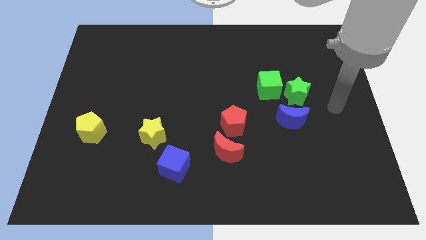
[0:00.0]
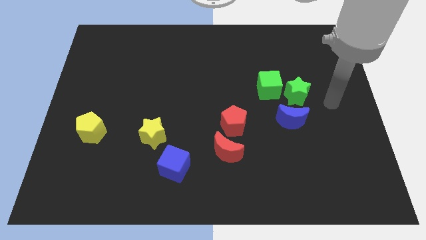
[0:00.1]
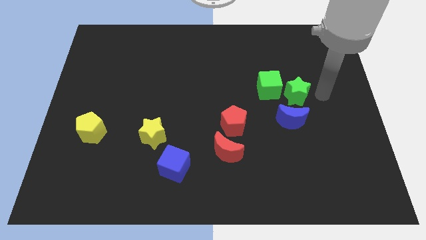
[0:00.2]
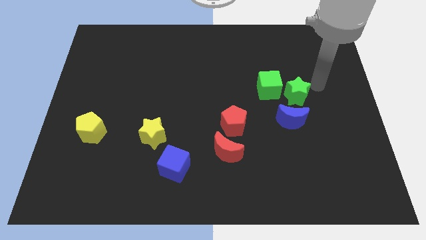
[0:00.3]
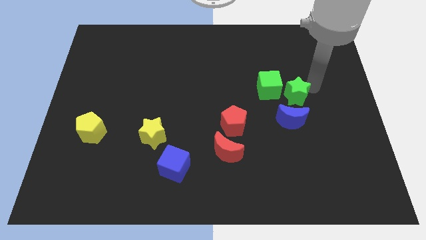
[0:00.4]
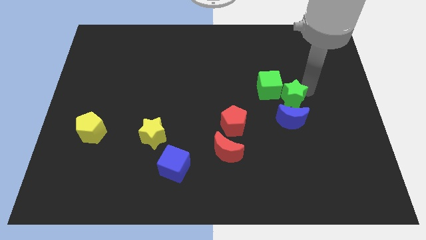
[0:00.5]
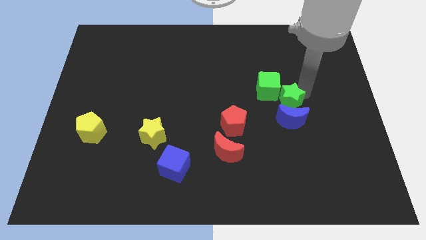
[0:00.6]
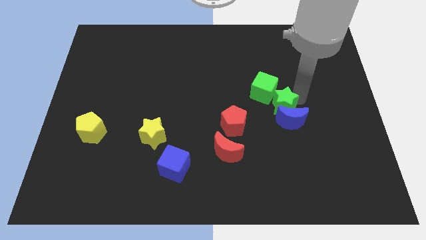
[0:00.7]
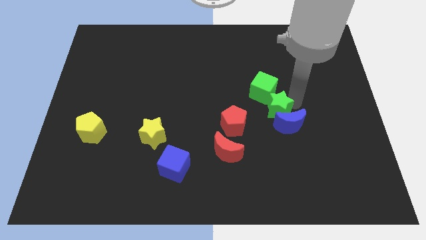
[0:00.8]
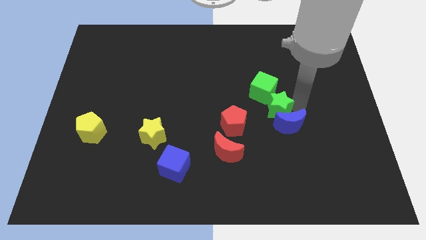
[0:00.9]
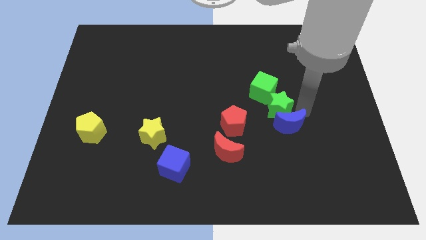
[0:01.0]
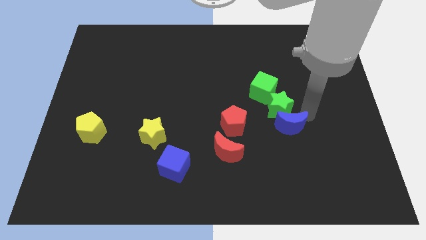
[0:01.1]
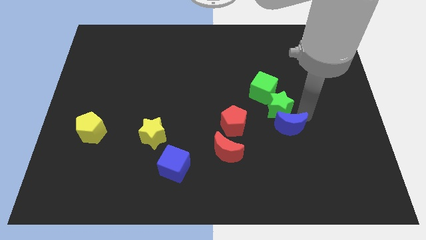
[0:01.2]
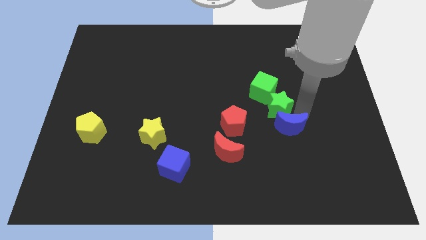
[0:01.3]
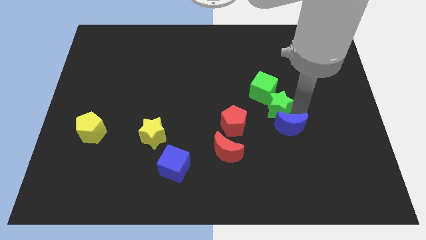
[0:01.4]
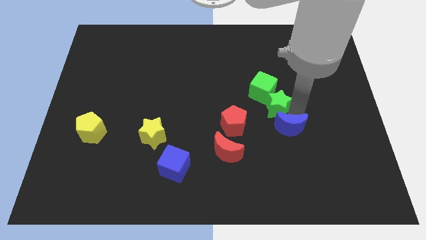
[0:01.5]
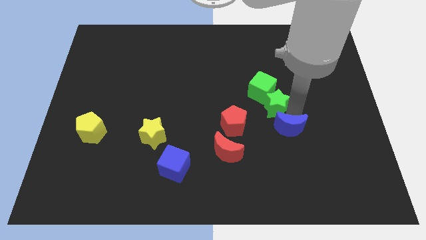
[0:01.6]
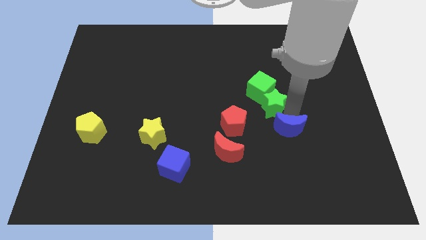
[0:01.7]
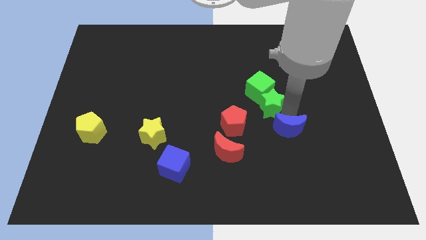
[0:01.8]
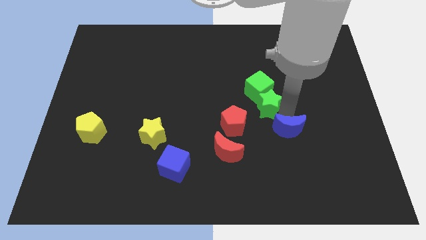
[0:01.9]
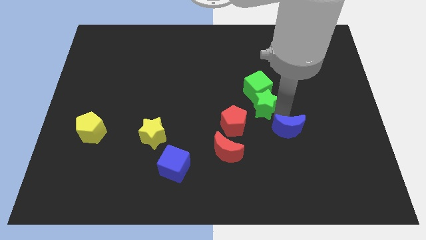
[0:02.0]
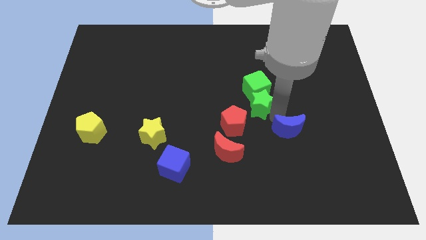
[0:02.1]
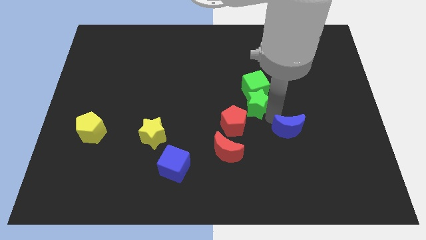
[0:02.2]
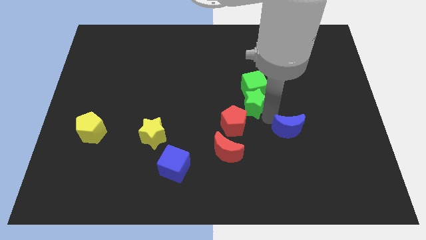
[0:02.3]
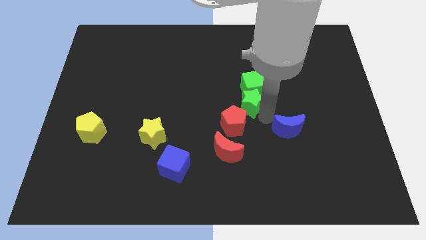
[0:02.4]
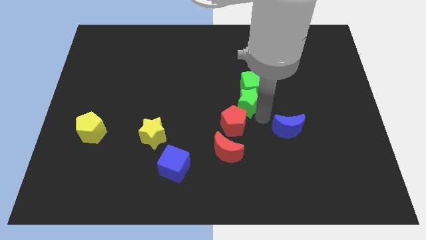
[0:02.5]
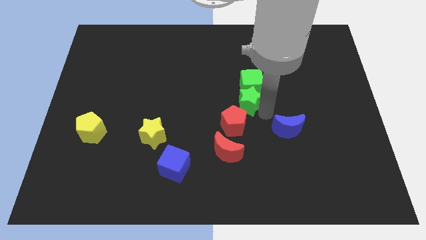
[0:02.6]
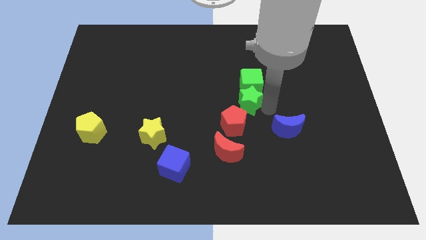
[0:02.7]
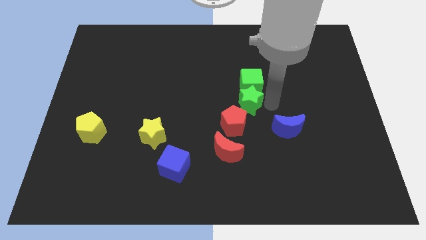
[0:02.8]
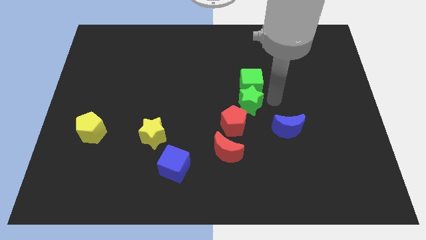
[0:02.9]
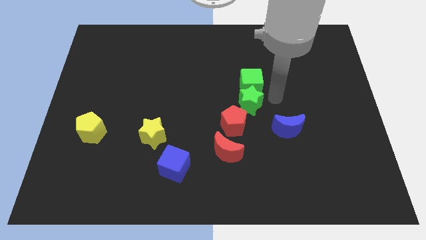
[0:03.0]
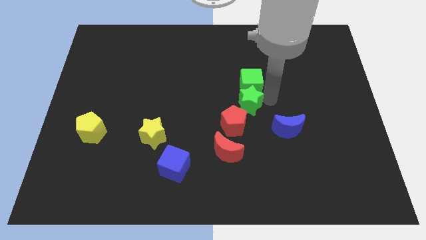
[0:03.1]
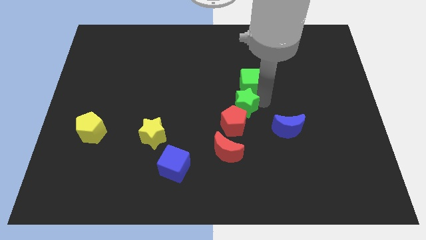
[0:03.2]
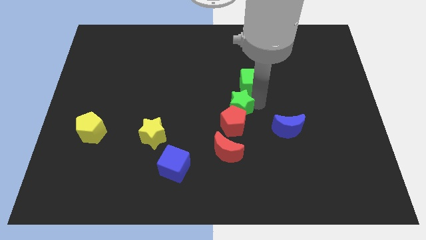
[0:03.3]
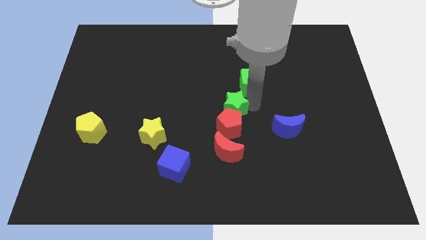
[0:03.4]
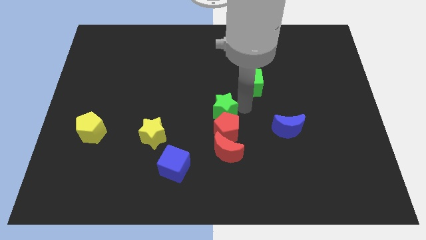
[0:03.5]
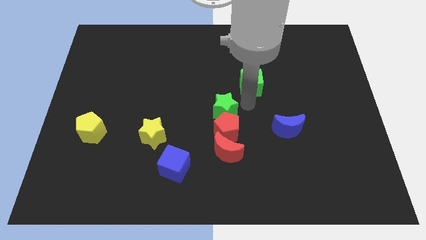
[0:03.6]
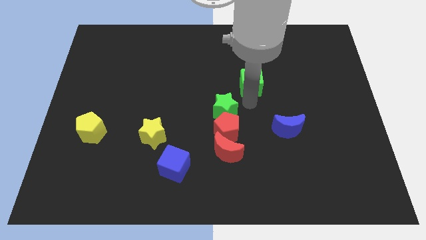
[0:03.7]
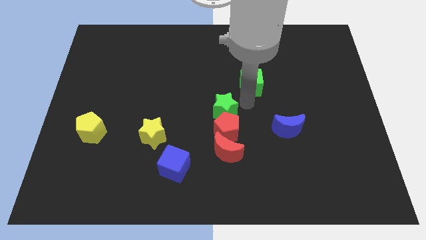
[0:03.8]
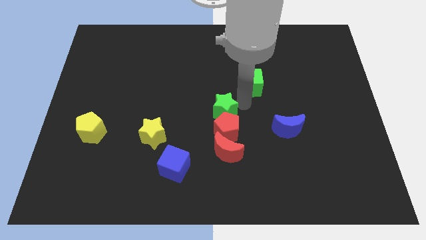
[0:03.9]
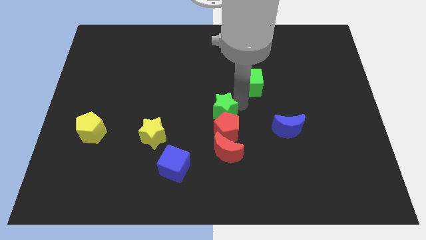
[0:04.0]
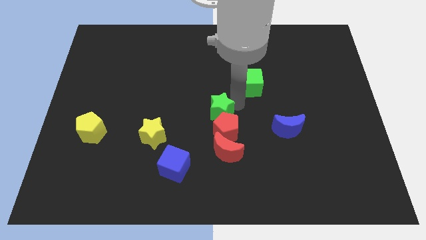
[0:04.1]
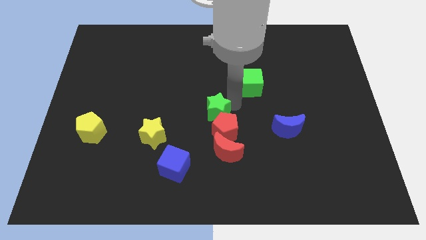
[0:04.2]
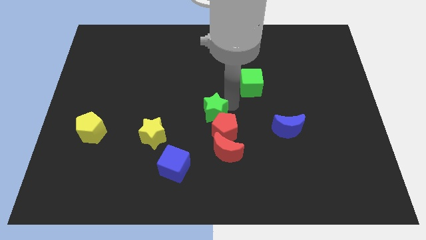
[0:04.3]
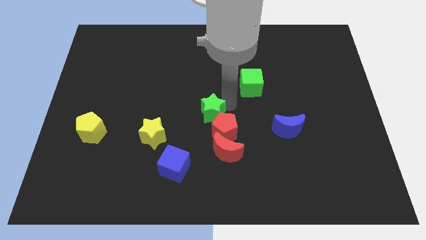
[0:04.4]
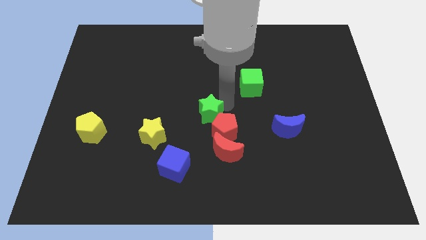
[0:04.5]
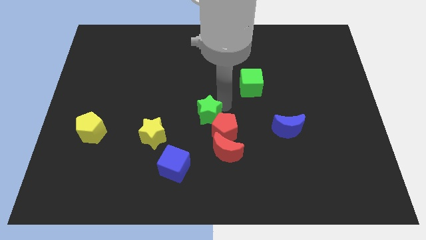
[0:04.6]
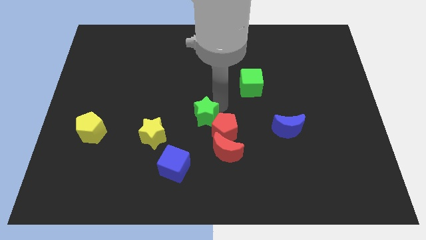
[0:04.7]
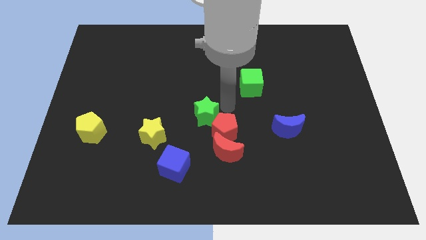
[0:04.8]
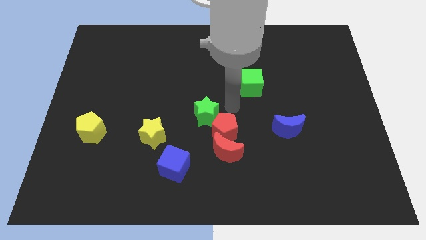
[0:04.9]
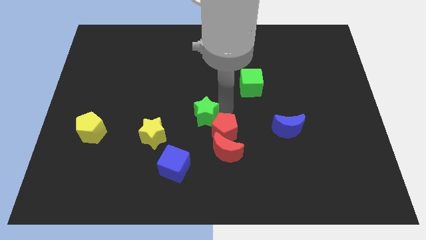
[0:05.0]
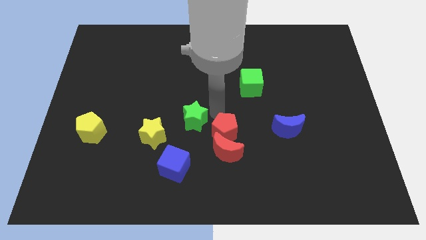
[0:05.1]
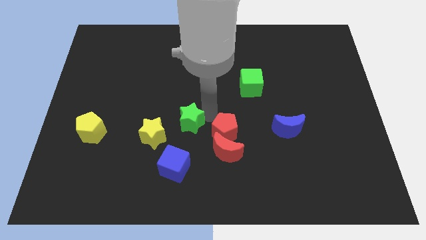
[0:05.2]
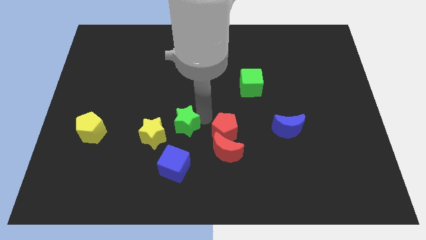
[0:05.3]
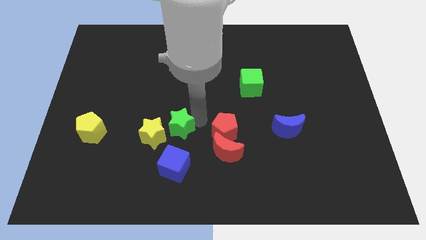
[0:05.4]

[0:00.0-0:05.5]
put the green star towards the yellow star

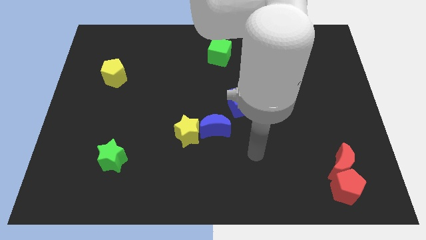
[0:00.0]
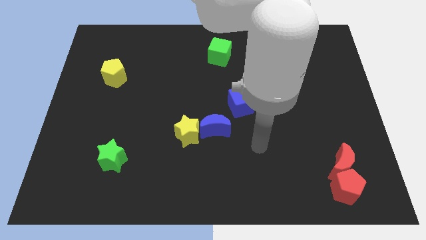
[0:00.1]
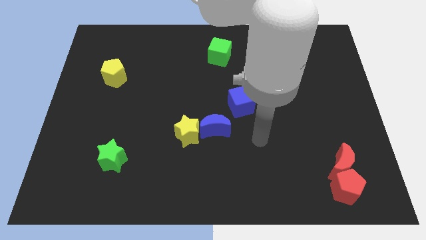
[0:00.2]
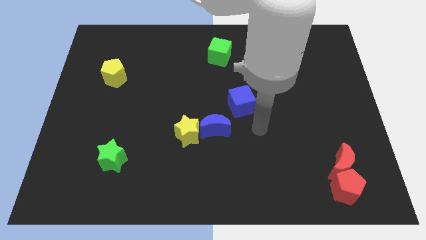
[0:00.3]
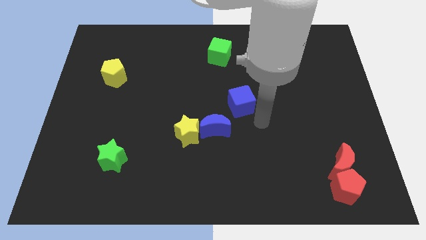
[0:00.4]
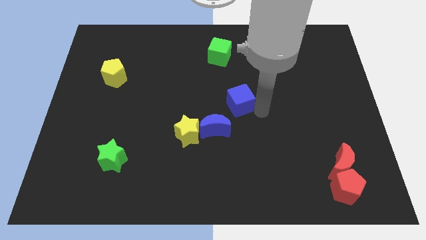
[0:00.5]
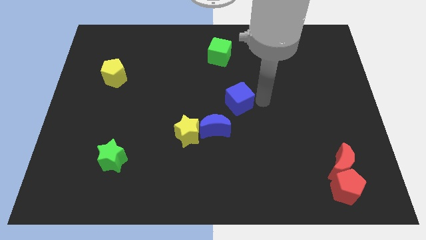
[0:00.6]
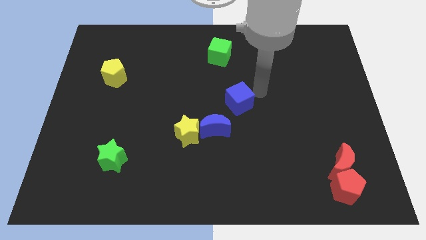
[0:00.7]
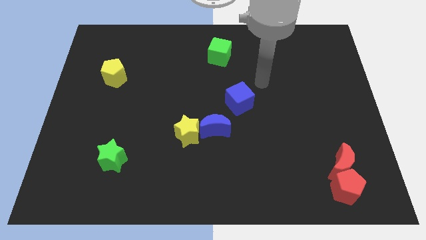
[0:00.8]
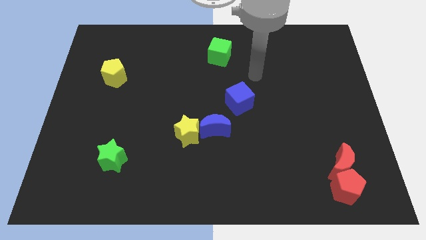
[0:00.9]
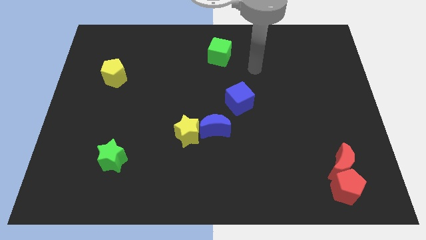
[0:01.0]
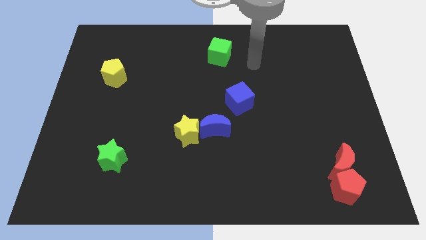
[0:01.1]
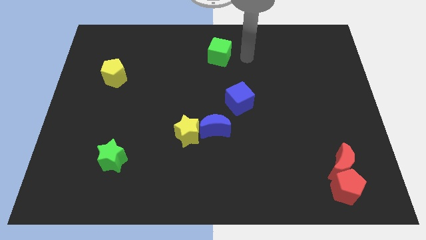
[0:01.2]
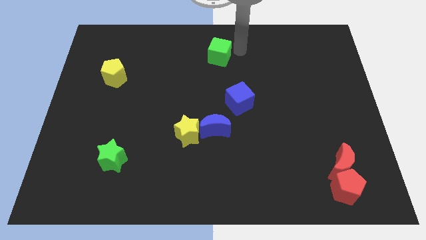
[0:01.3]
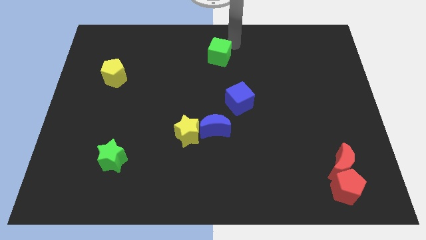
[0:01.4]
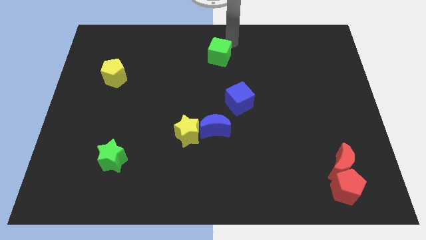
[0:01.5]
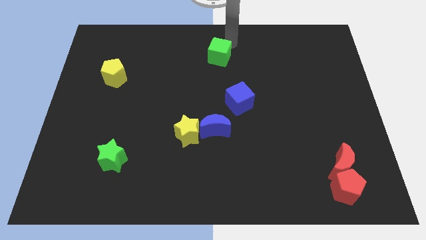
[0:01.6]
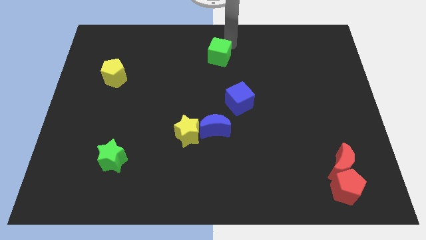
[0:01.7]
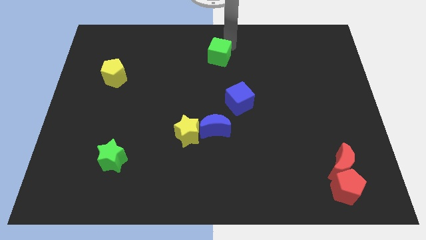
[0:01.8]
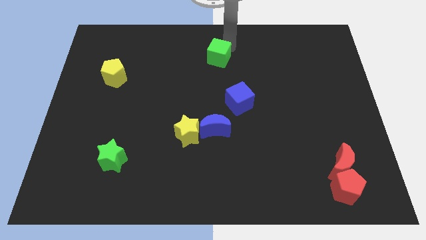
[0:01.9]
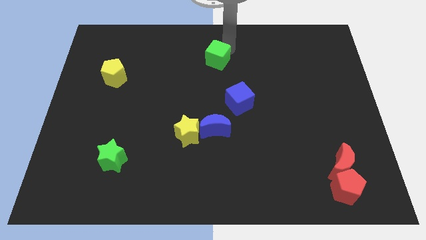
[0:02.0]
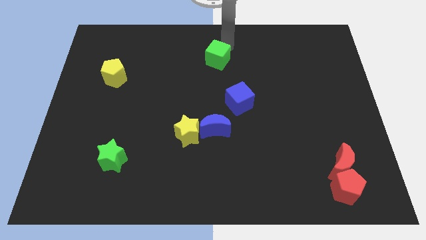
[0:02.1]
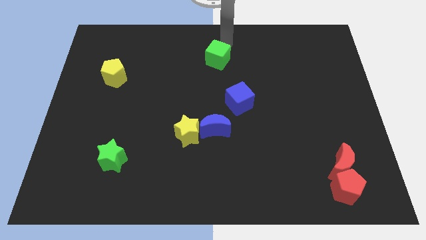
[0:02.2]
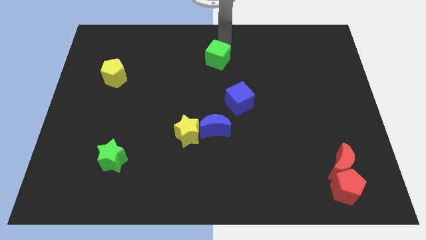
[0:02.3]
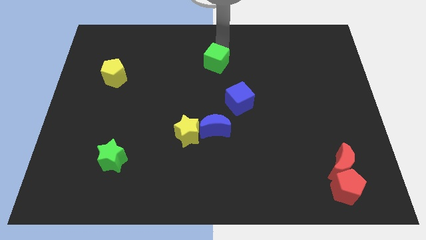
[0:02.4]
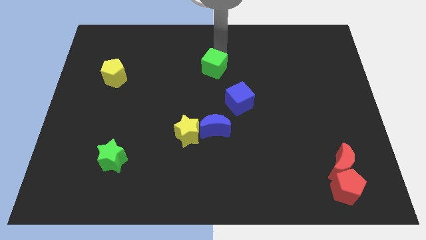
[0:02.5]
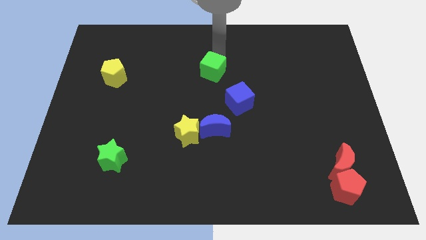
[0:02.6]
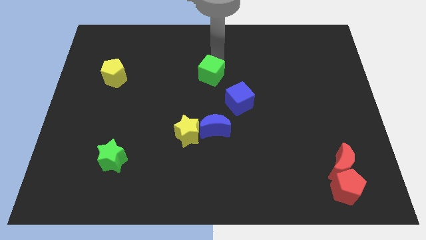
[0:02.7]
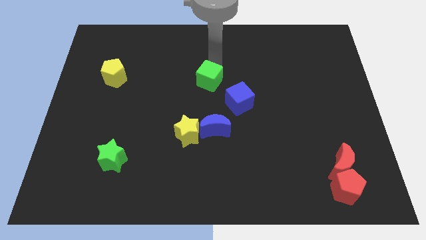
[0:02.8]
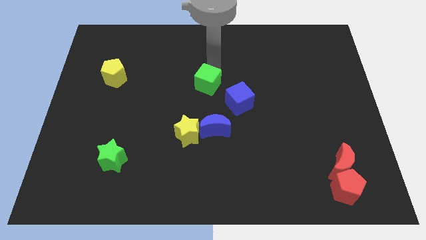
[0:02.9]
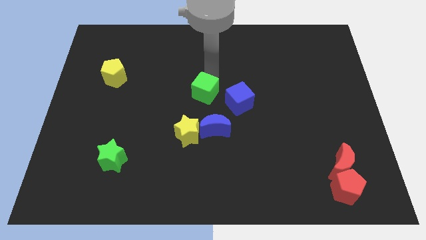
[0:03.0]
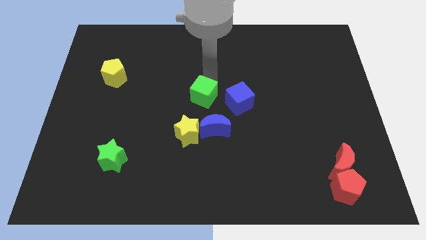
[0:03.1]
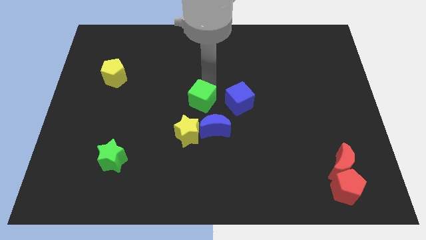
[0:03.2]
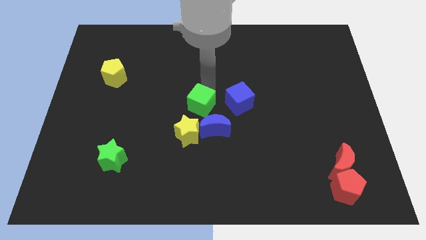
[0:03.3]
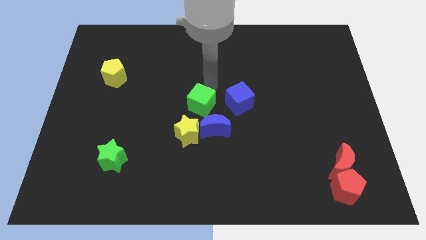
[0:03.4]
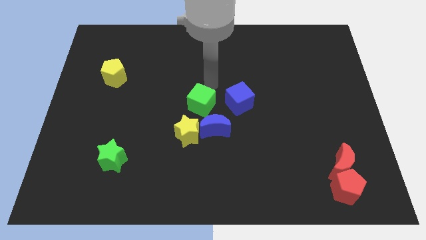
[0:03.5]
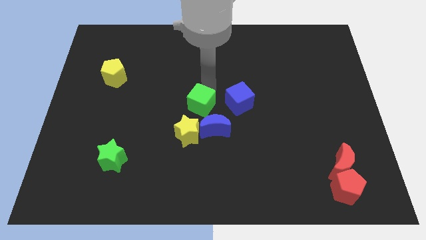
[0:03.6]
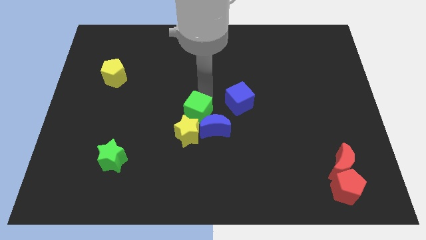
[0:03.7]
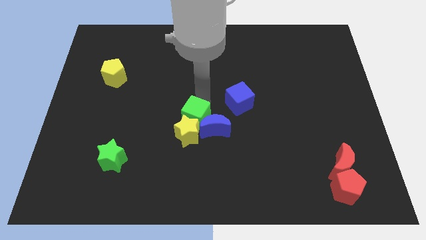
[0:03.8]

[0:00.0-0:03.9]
put the green cube close to the yellow star
